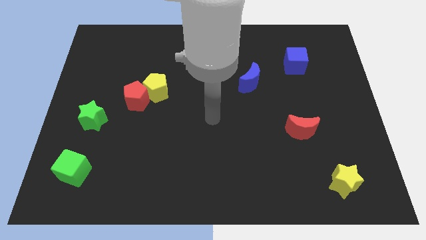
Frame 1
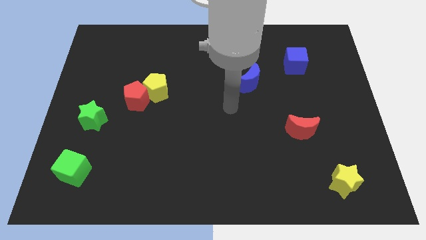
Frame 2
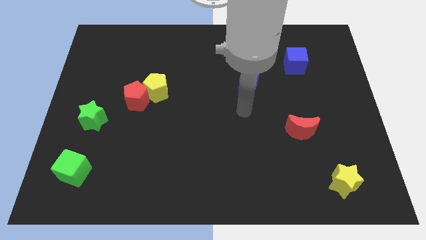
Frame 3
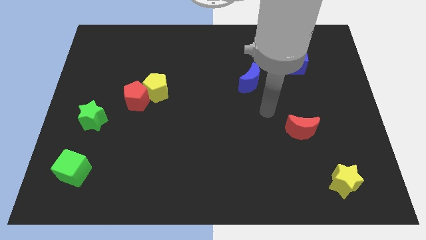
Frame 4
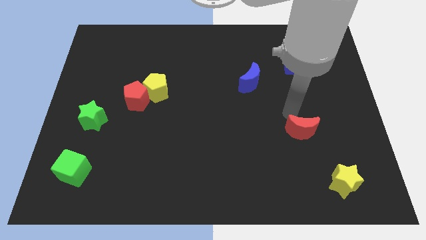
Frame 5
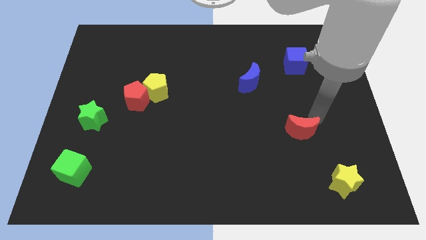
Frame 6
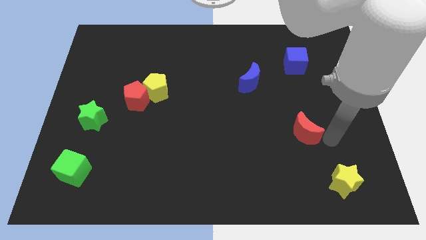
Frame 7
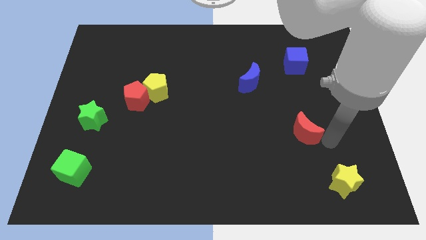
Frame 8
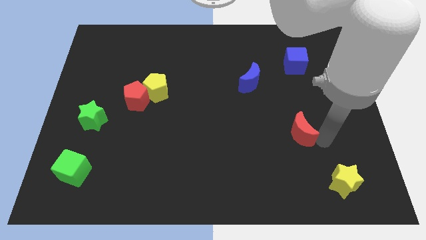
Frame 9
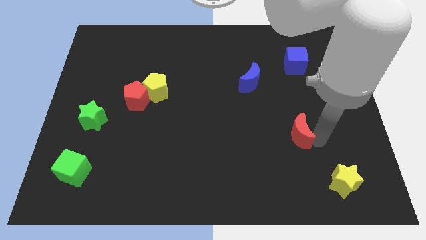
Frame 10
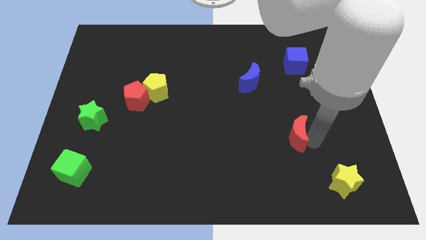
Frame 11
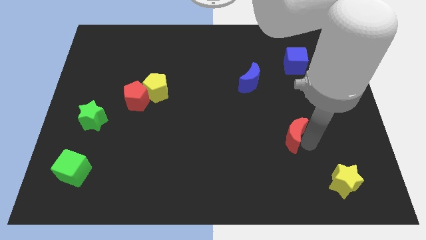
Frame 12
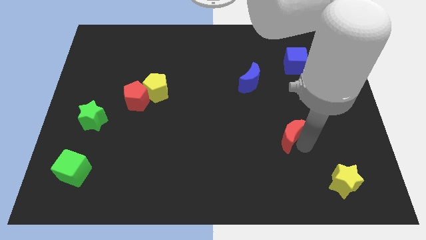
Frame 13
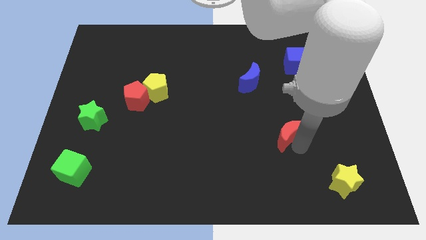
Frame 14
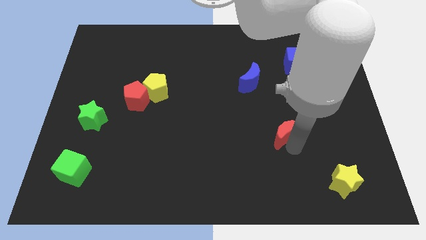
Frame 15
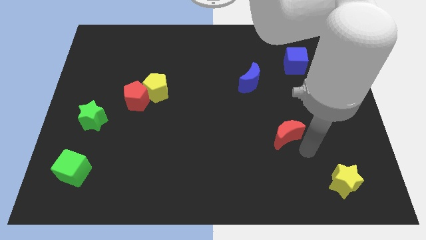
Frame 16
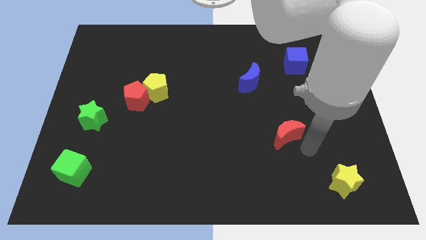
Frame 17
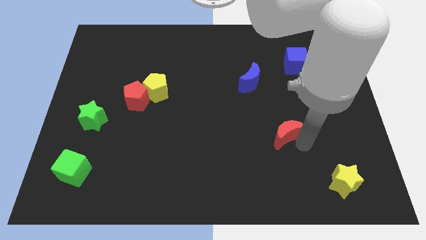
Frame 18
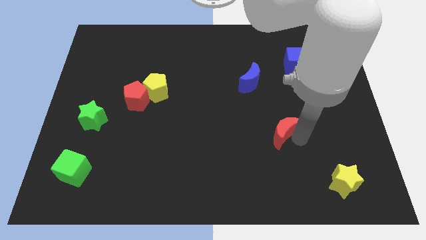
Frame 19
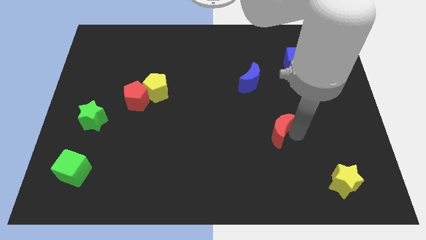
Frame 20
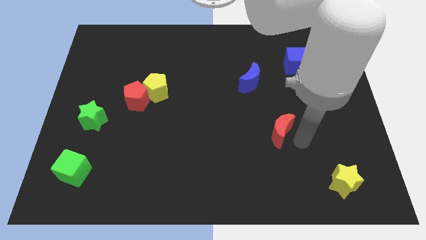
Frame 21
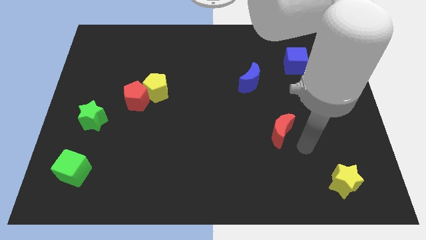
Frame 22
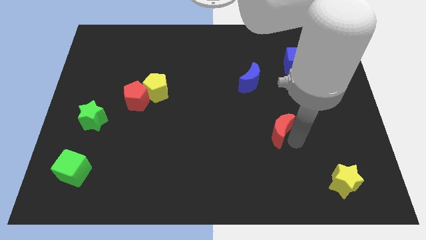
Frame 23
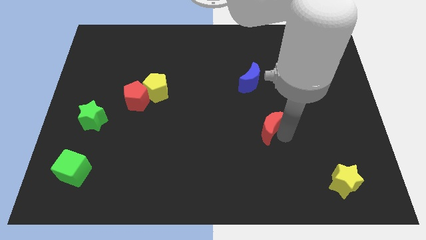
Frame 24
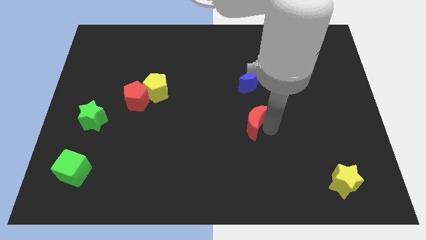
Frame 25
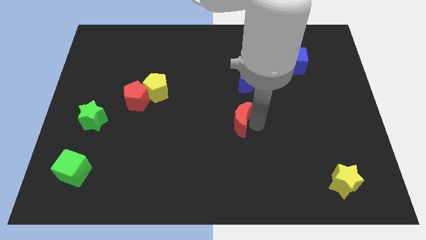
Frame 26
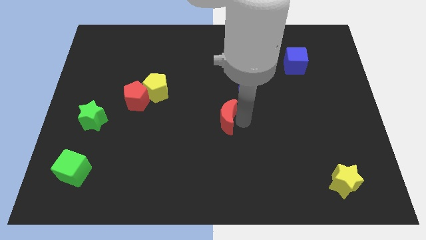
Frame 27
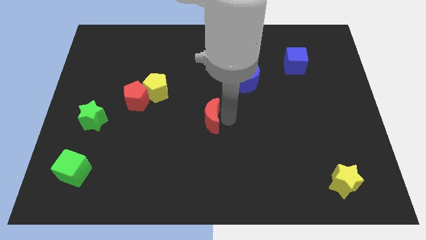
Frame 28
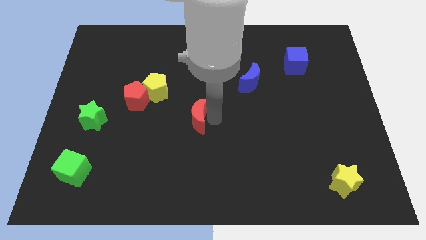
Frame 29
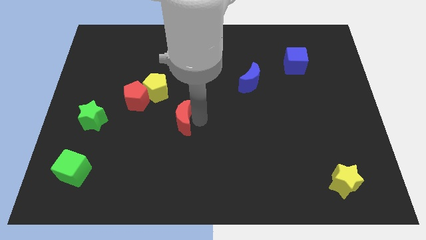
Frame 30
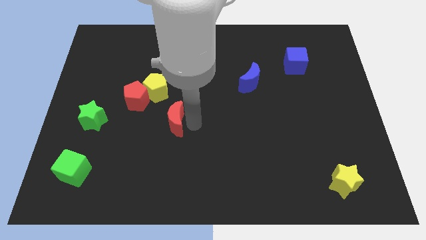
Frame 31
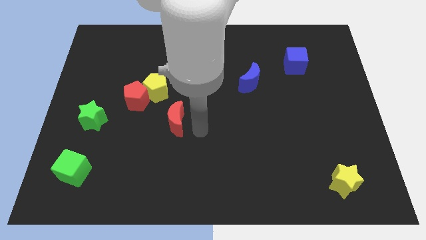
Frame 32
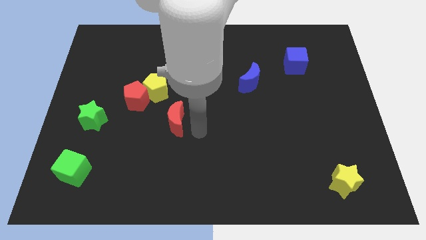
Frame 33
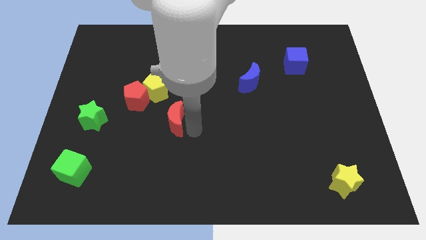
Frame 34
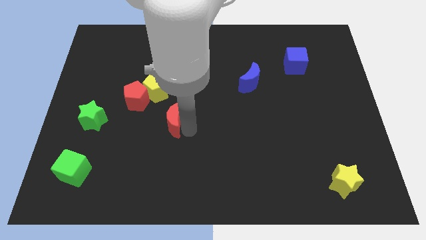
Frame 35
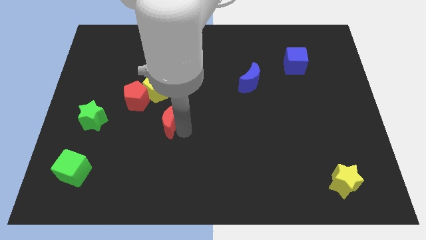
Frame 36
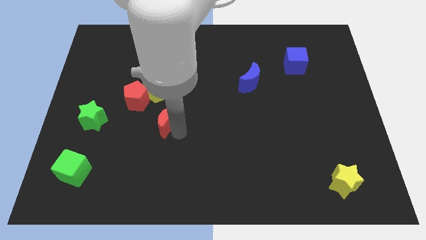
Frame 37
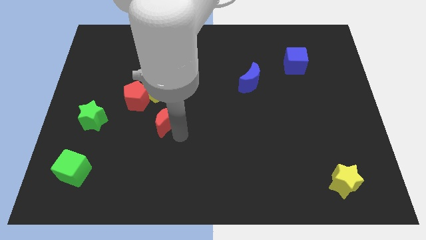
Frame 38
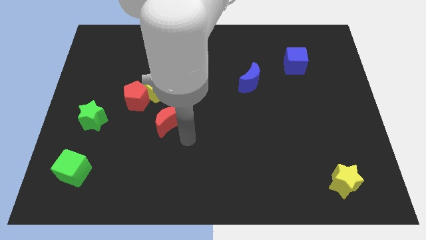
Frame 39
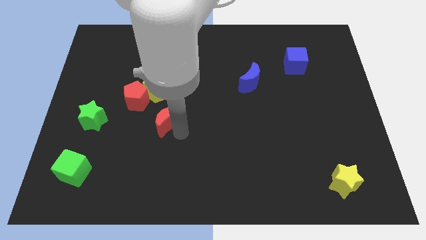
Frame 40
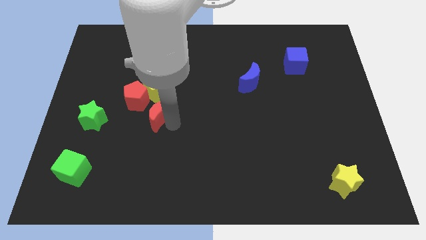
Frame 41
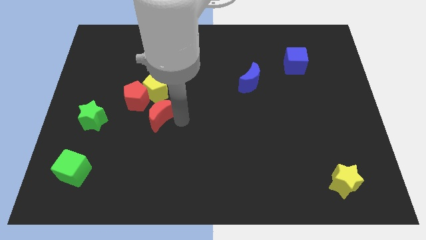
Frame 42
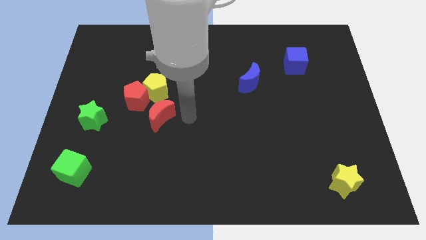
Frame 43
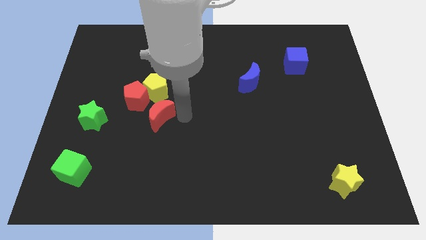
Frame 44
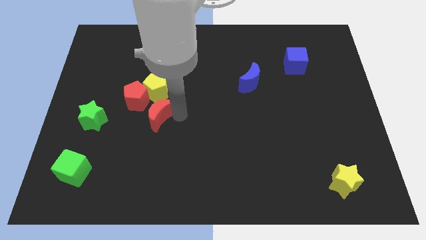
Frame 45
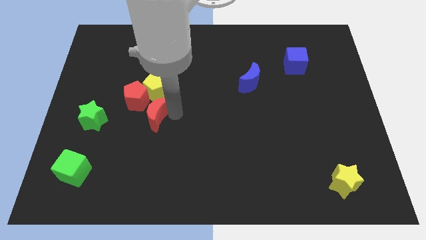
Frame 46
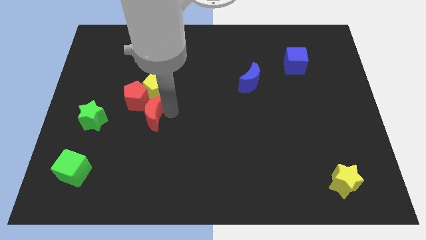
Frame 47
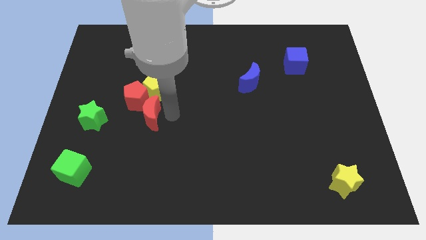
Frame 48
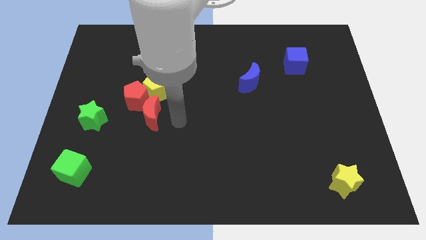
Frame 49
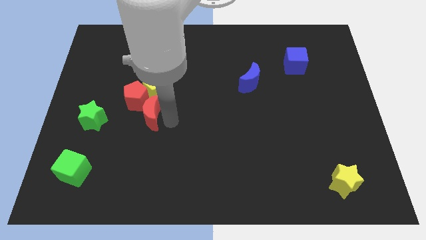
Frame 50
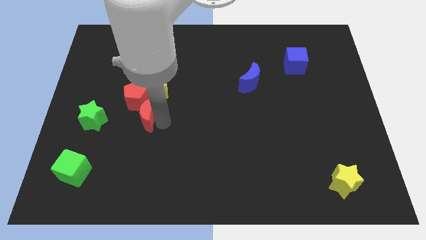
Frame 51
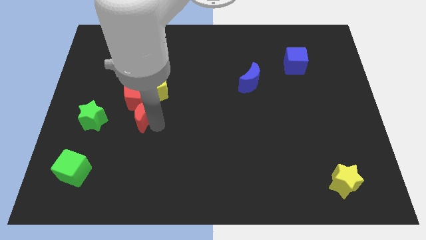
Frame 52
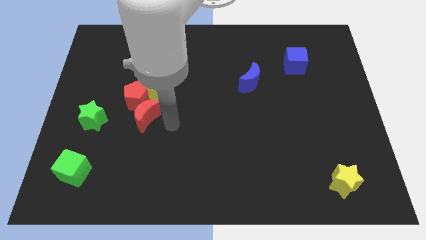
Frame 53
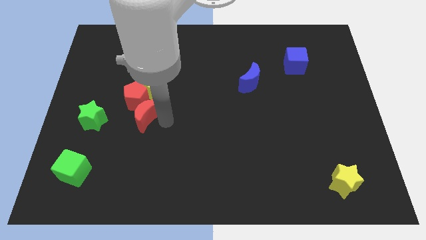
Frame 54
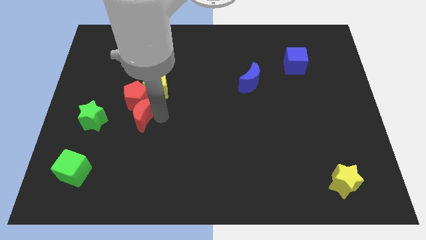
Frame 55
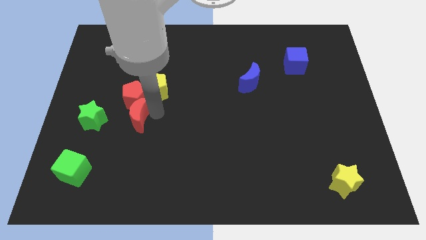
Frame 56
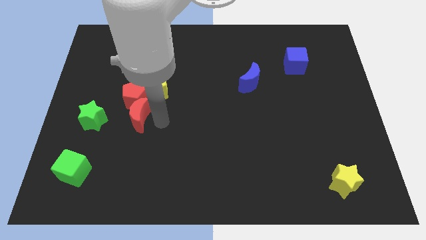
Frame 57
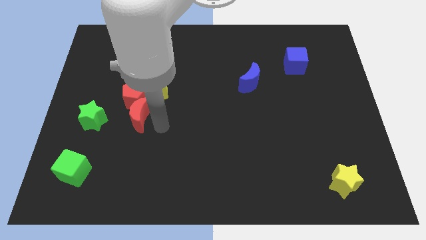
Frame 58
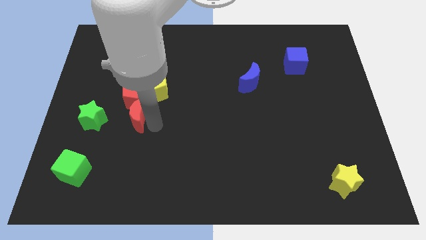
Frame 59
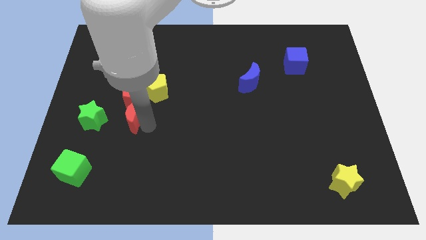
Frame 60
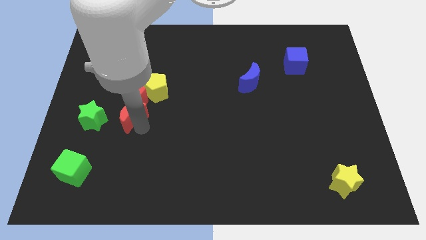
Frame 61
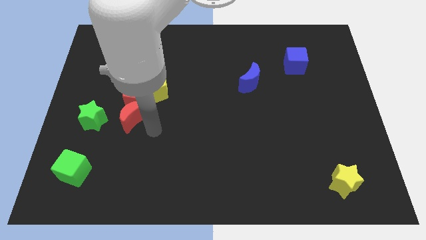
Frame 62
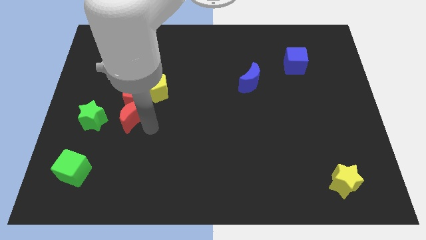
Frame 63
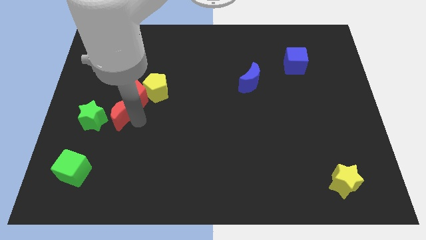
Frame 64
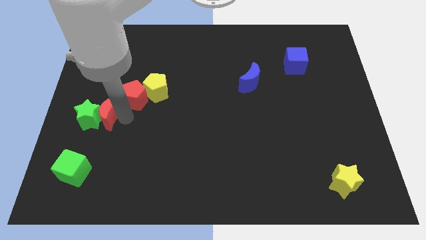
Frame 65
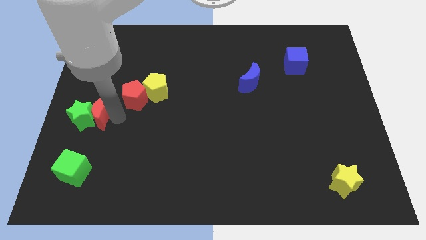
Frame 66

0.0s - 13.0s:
move the red moon to the left side of the board
